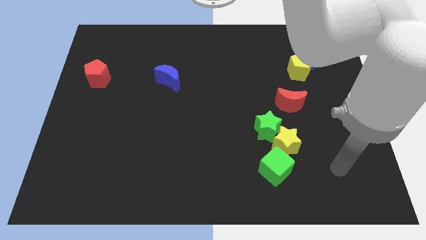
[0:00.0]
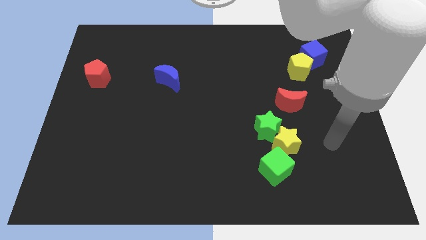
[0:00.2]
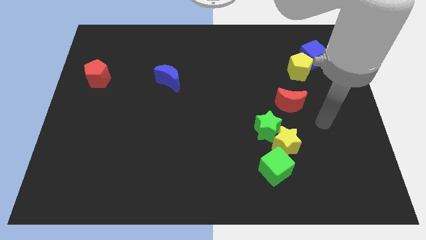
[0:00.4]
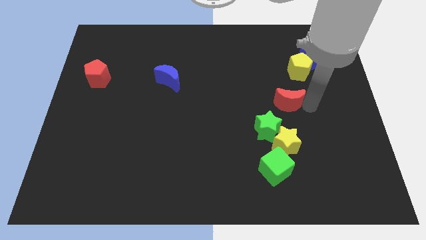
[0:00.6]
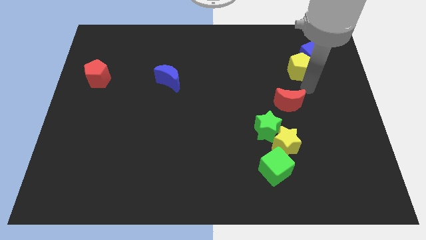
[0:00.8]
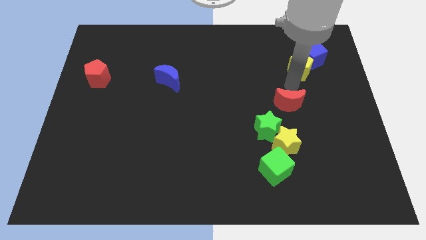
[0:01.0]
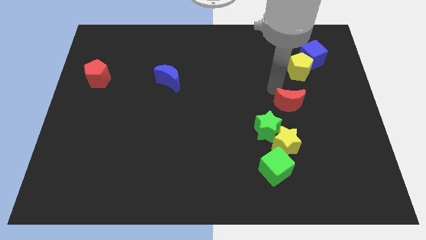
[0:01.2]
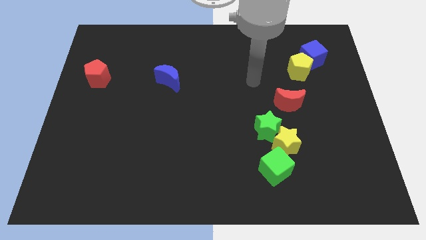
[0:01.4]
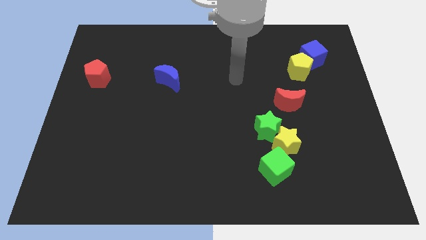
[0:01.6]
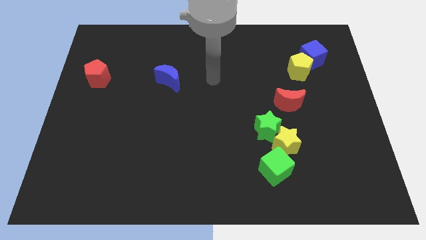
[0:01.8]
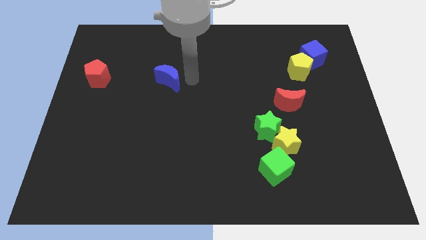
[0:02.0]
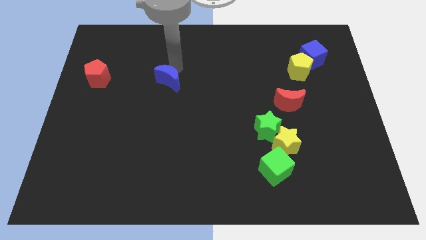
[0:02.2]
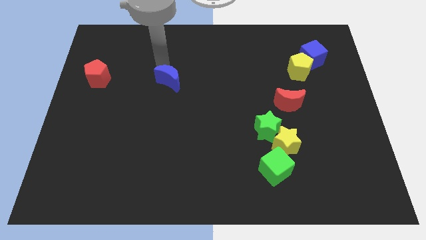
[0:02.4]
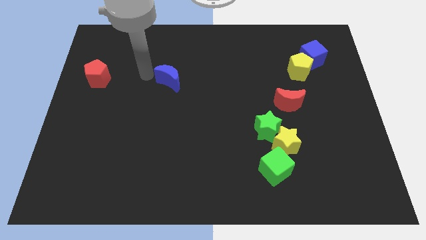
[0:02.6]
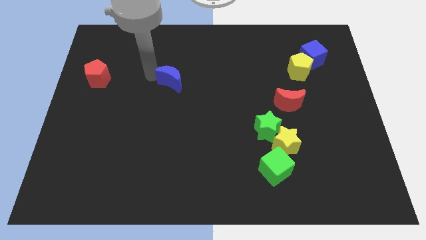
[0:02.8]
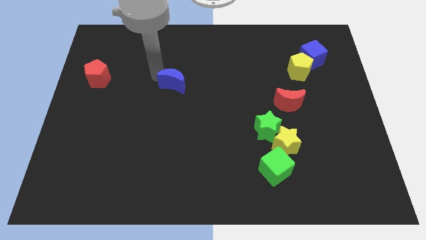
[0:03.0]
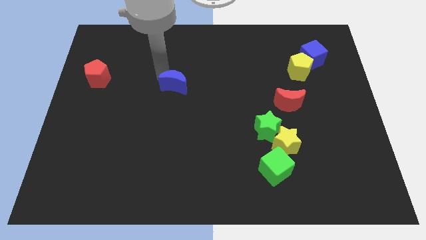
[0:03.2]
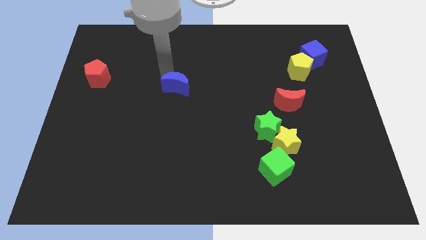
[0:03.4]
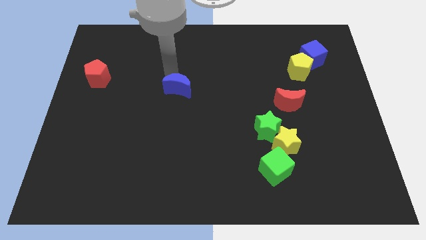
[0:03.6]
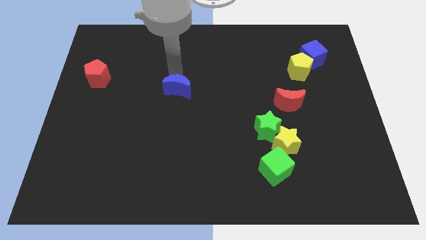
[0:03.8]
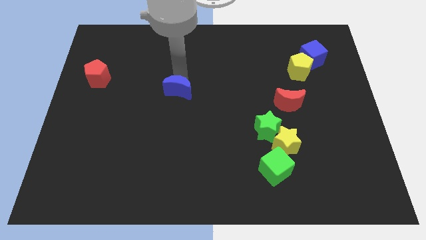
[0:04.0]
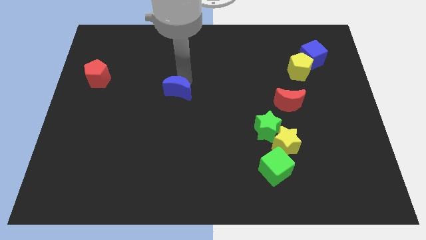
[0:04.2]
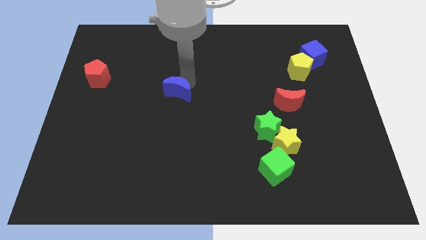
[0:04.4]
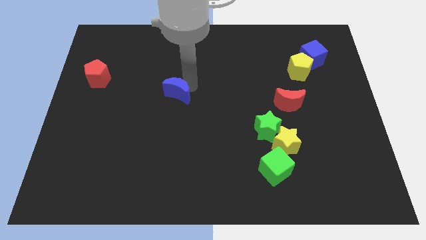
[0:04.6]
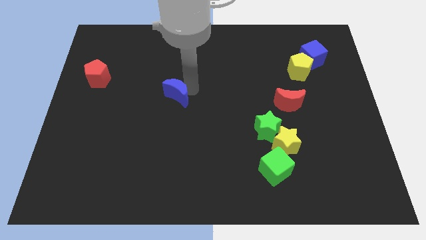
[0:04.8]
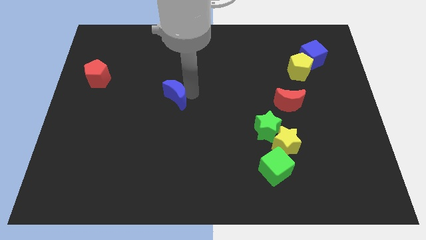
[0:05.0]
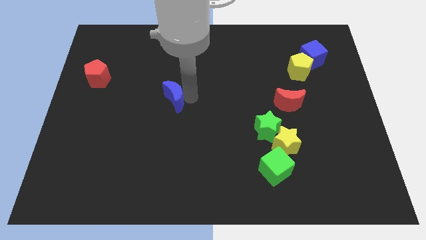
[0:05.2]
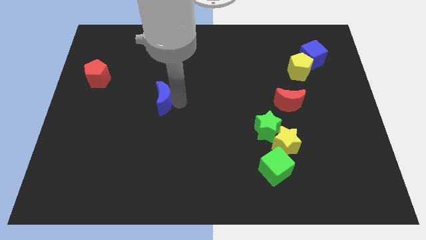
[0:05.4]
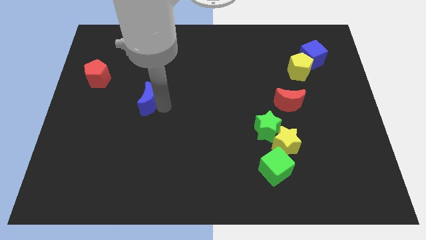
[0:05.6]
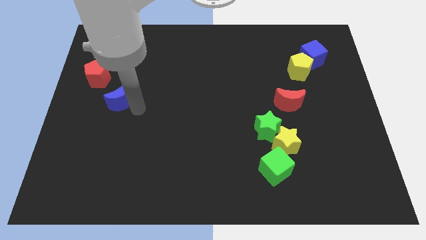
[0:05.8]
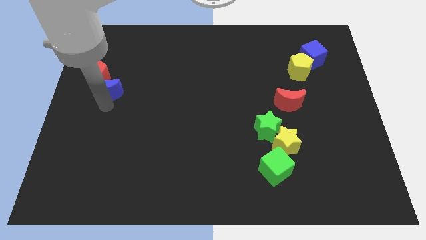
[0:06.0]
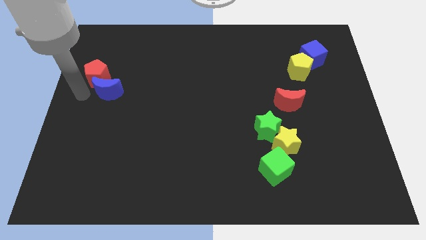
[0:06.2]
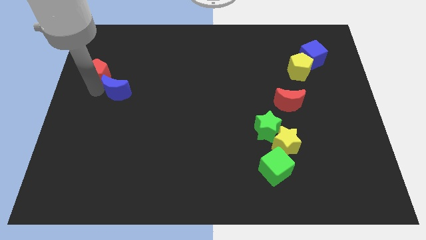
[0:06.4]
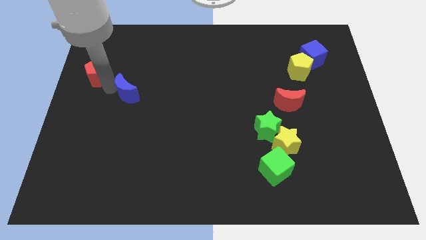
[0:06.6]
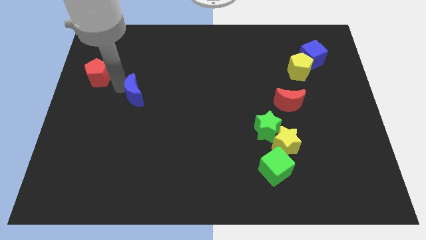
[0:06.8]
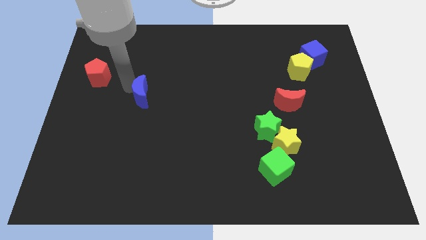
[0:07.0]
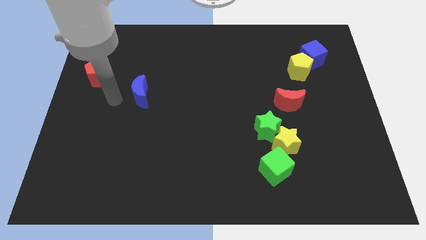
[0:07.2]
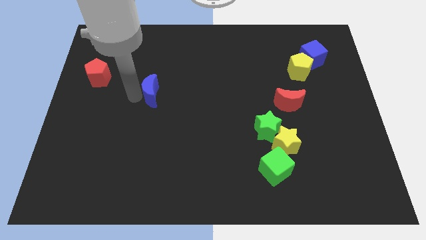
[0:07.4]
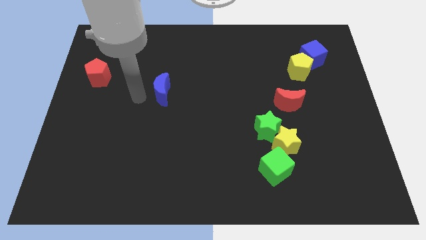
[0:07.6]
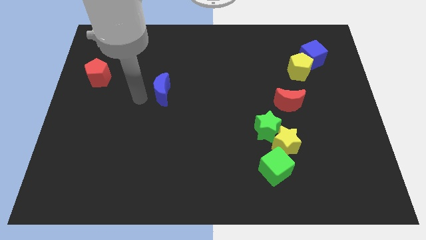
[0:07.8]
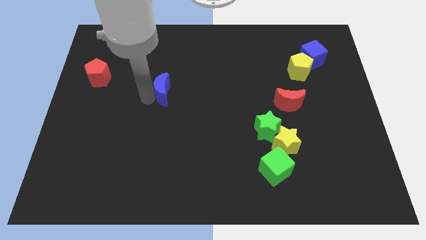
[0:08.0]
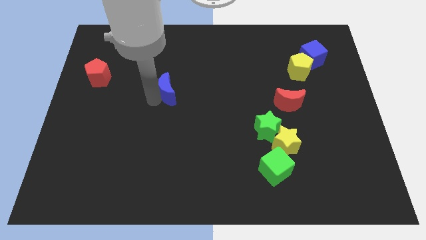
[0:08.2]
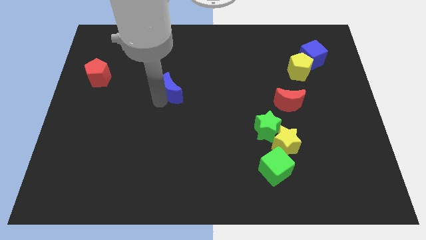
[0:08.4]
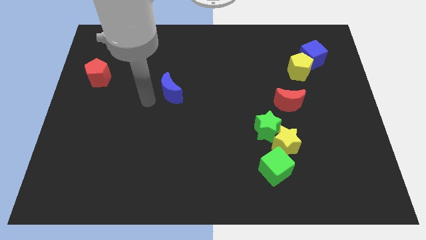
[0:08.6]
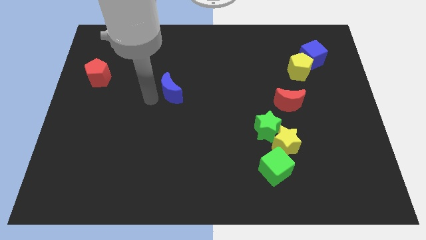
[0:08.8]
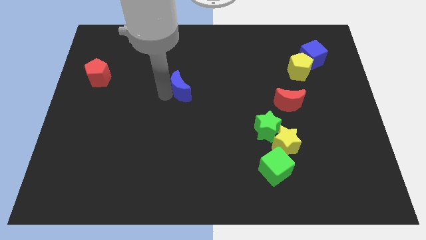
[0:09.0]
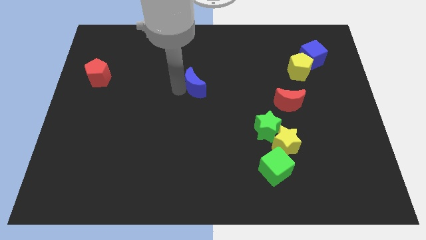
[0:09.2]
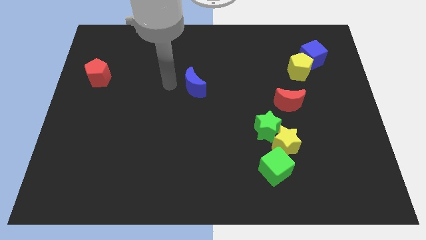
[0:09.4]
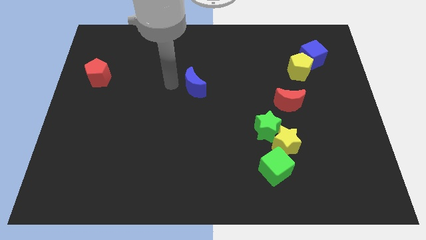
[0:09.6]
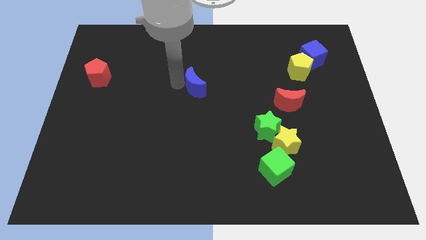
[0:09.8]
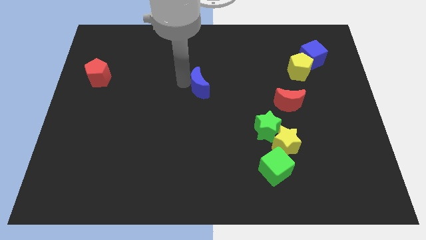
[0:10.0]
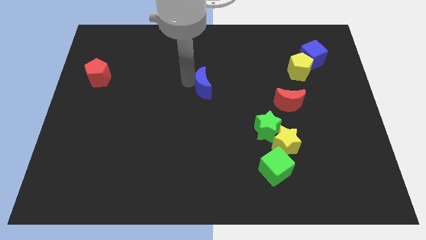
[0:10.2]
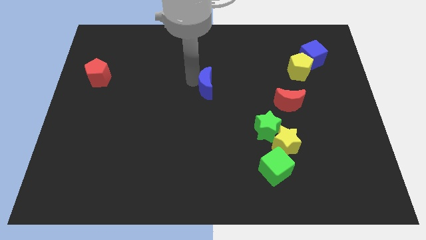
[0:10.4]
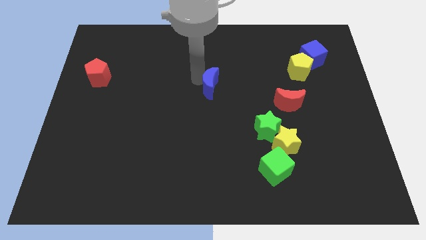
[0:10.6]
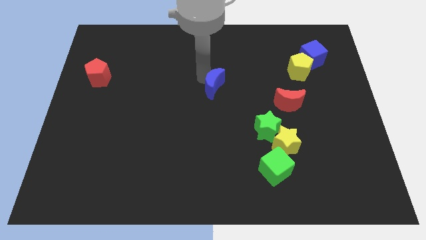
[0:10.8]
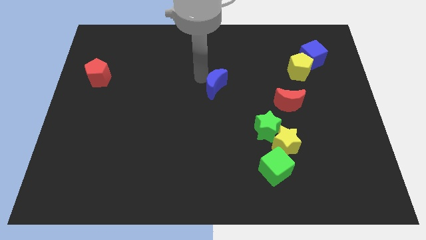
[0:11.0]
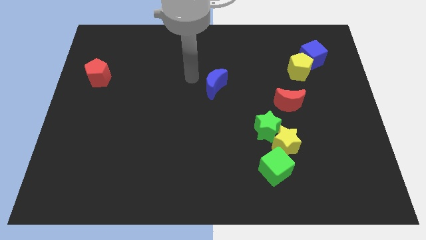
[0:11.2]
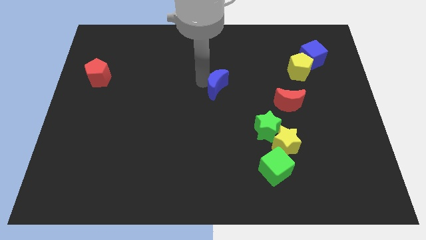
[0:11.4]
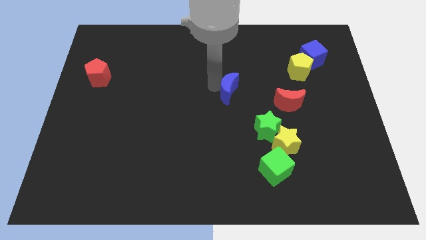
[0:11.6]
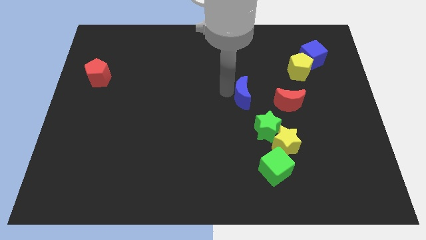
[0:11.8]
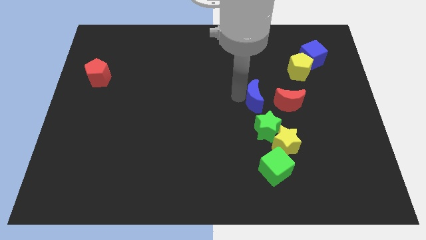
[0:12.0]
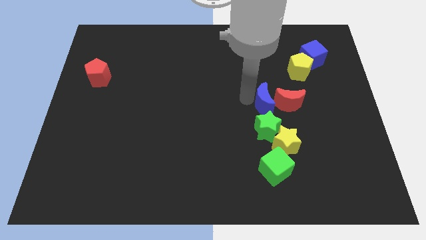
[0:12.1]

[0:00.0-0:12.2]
slide the blue moon to the red moon

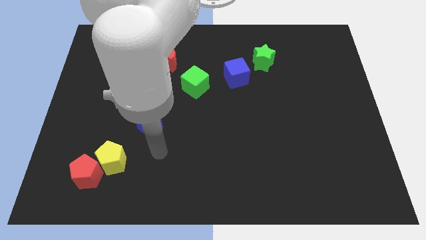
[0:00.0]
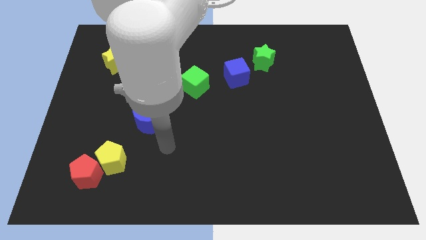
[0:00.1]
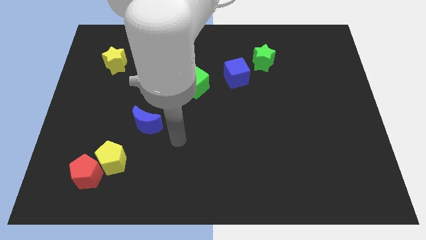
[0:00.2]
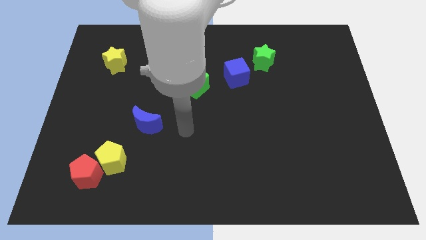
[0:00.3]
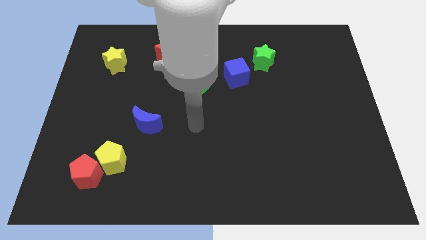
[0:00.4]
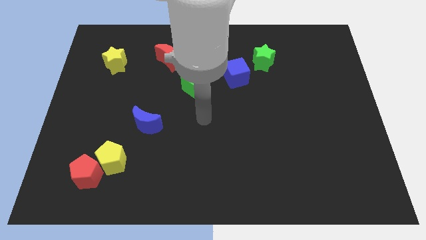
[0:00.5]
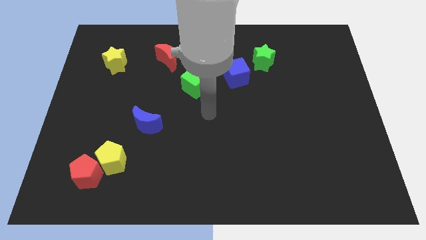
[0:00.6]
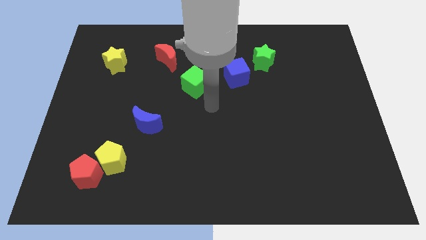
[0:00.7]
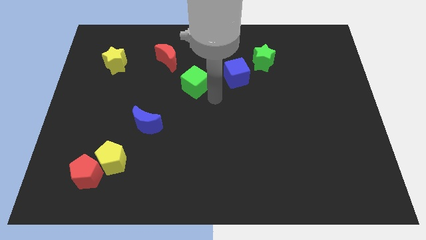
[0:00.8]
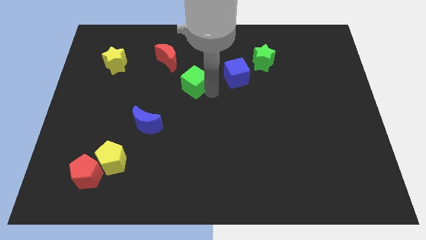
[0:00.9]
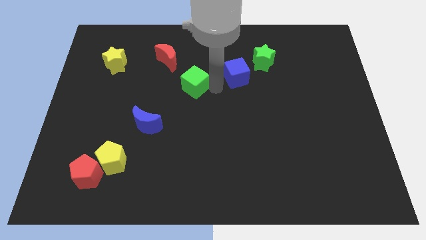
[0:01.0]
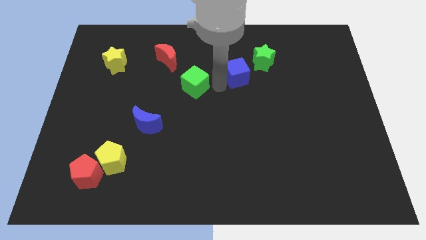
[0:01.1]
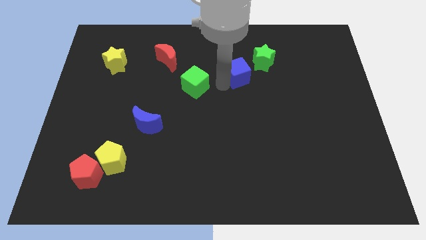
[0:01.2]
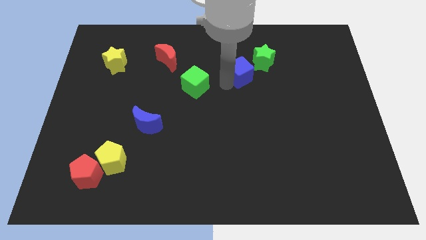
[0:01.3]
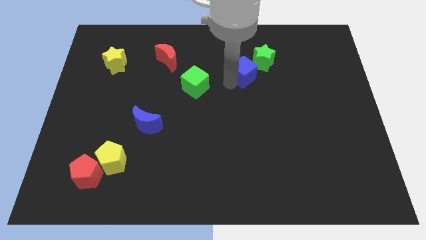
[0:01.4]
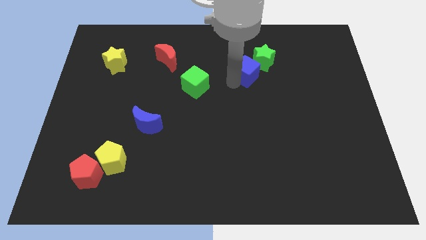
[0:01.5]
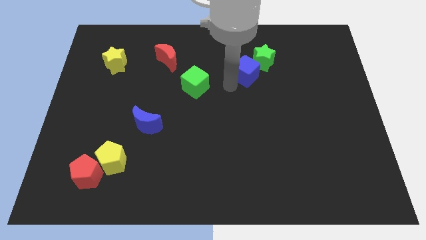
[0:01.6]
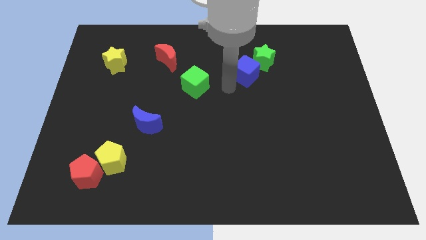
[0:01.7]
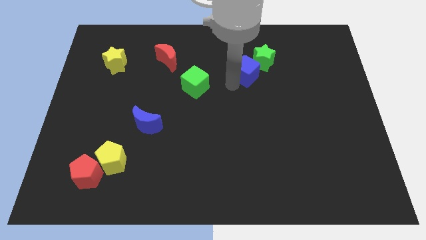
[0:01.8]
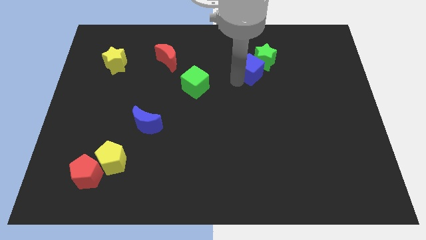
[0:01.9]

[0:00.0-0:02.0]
put the blue cube towards the green star
